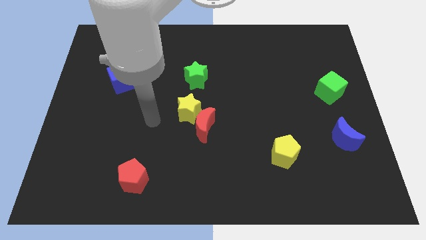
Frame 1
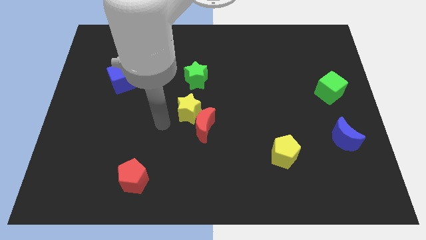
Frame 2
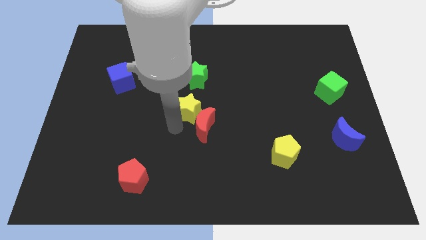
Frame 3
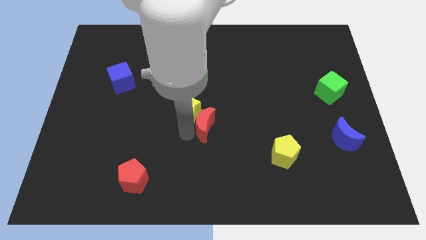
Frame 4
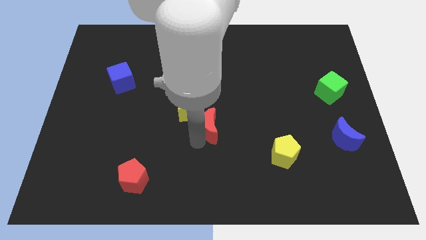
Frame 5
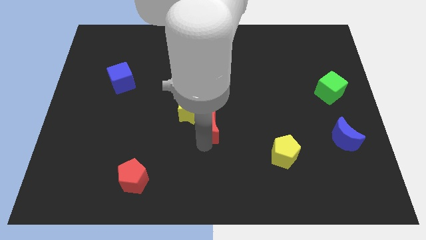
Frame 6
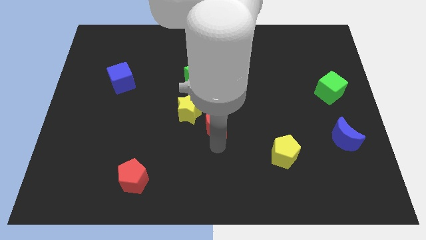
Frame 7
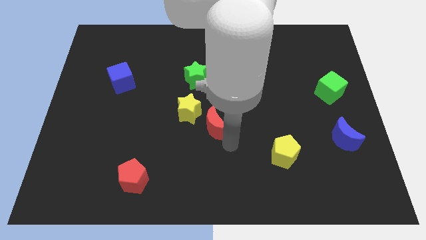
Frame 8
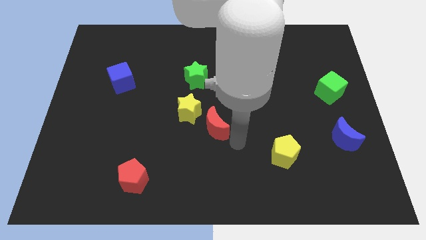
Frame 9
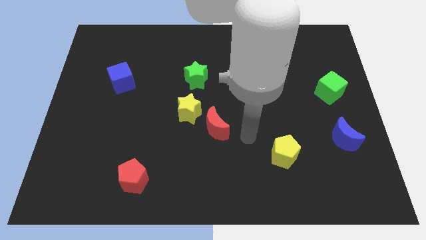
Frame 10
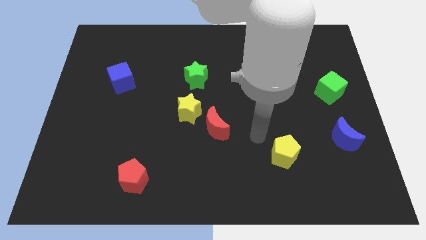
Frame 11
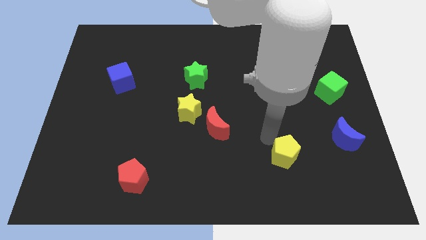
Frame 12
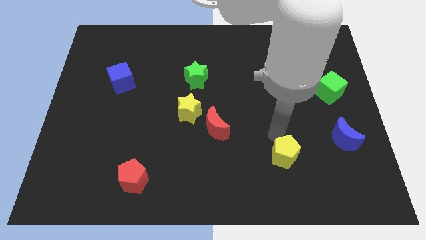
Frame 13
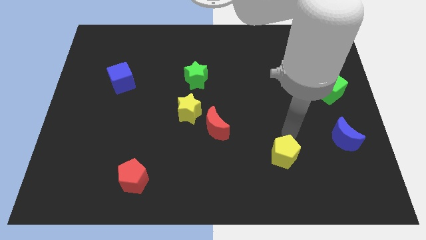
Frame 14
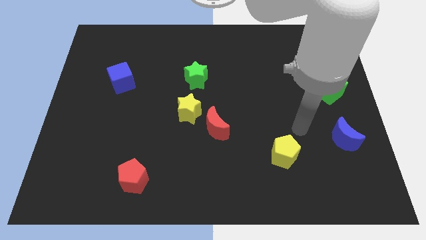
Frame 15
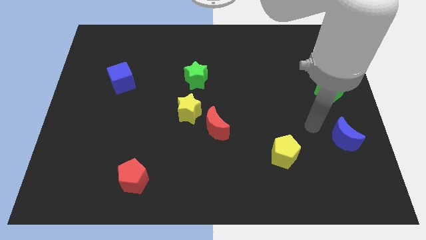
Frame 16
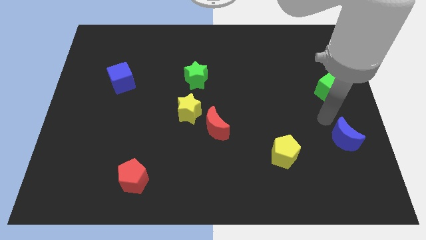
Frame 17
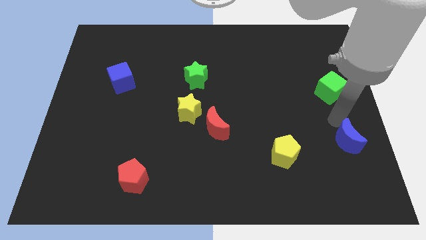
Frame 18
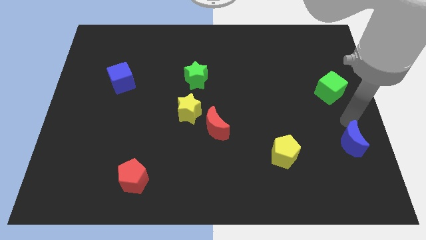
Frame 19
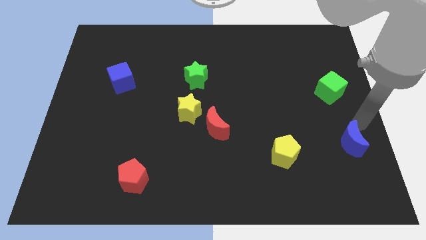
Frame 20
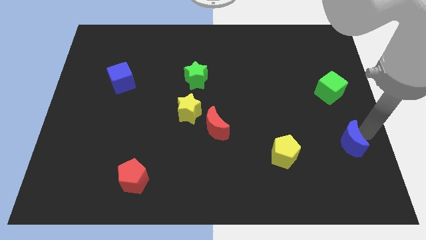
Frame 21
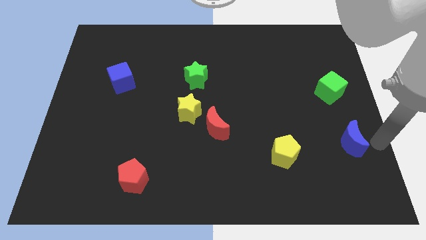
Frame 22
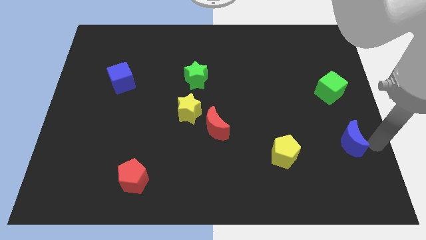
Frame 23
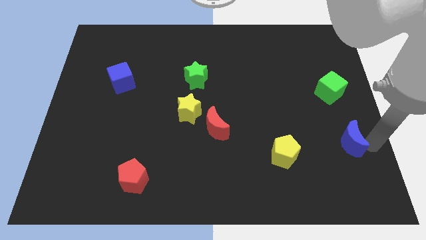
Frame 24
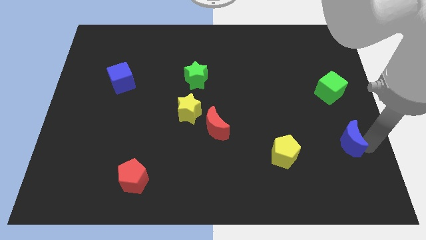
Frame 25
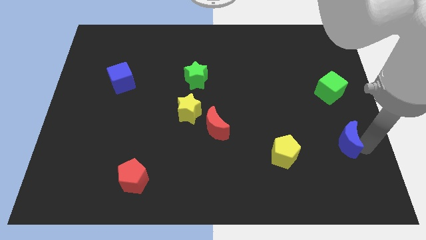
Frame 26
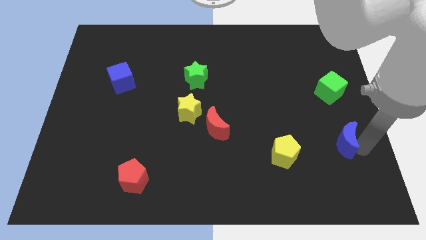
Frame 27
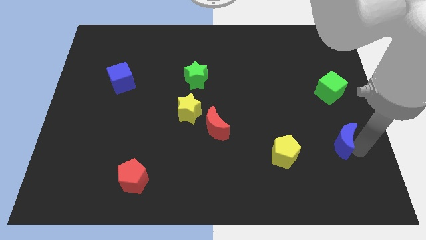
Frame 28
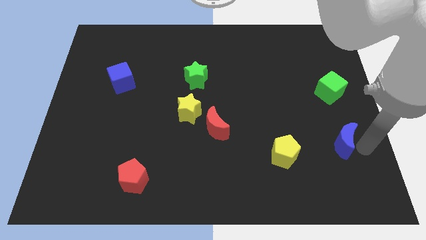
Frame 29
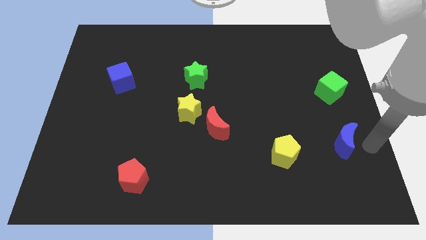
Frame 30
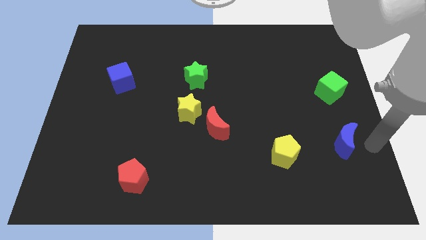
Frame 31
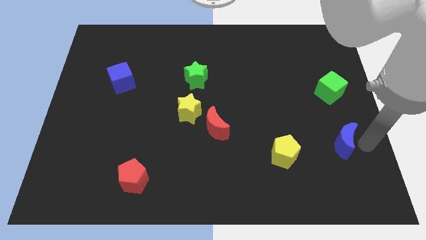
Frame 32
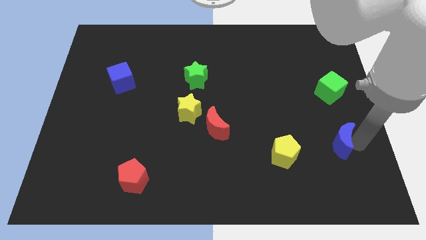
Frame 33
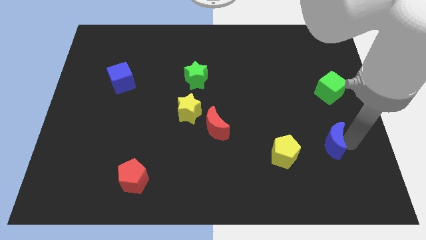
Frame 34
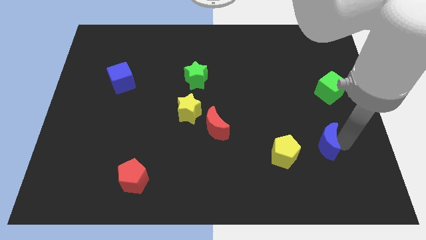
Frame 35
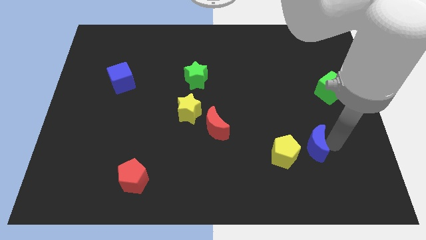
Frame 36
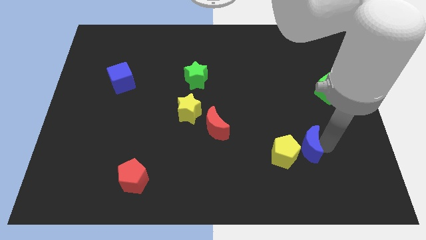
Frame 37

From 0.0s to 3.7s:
slide the blue moon a little bit left

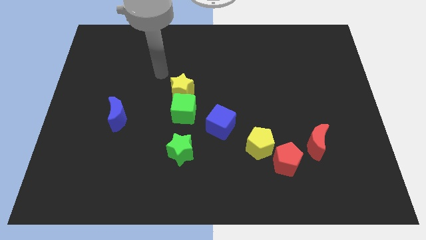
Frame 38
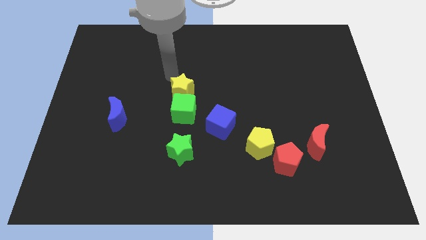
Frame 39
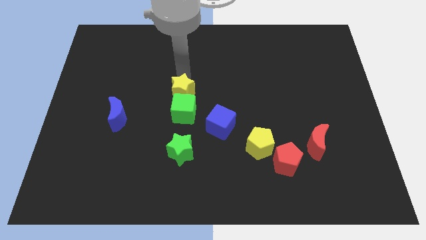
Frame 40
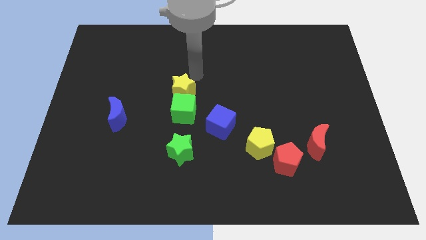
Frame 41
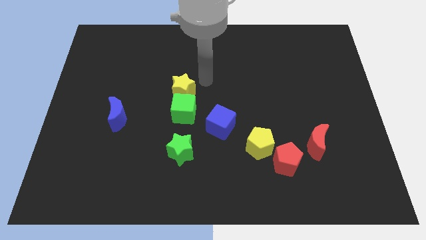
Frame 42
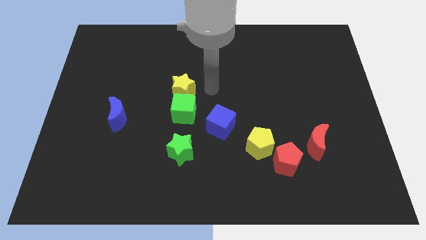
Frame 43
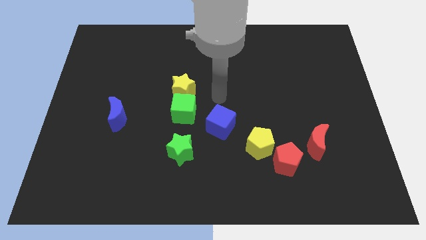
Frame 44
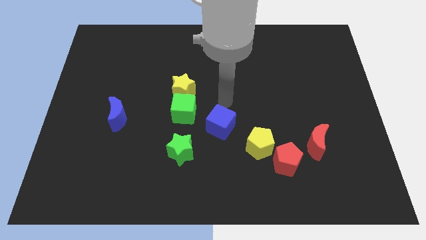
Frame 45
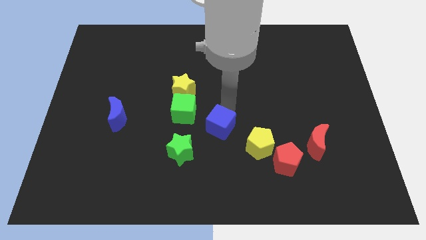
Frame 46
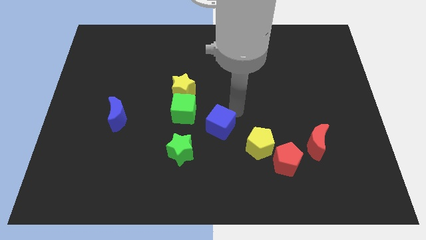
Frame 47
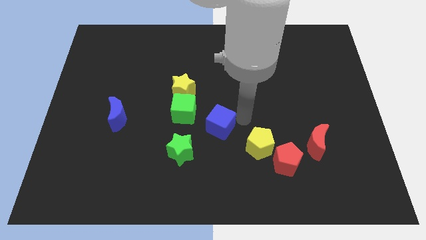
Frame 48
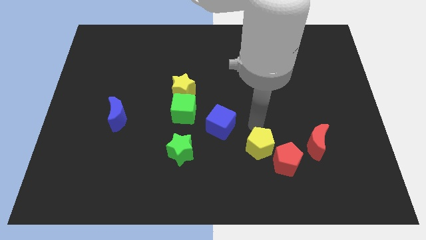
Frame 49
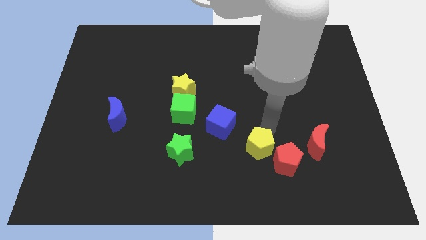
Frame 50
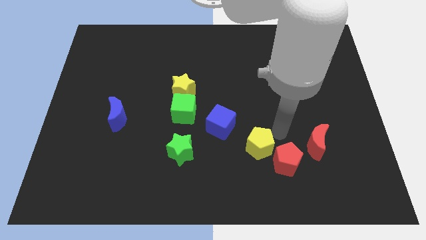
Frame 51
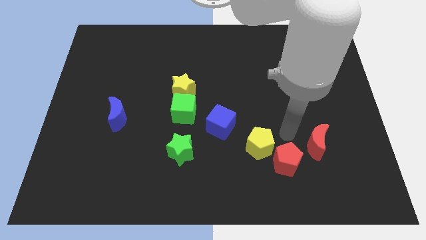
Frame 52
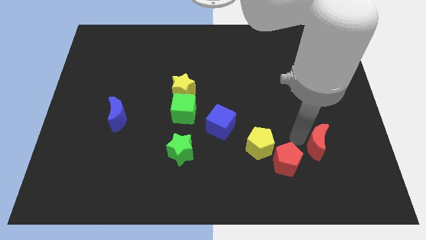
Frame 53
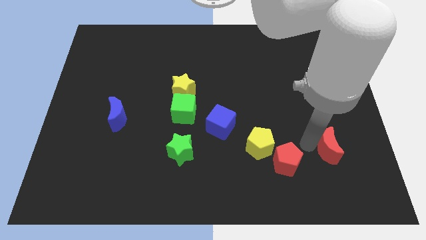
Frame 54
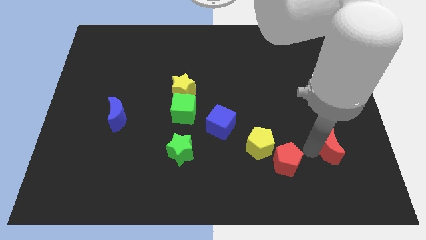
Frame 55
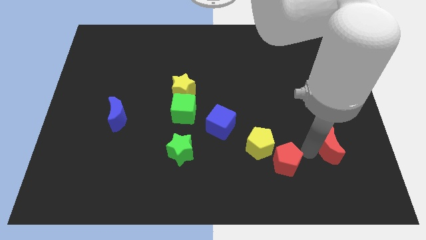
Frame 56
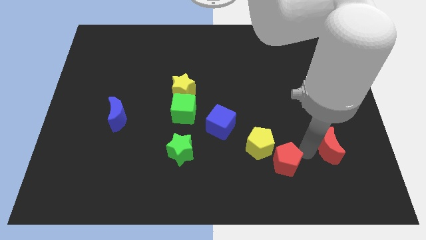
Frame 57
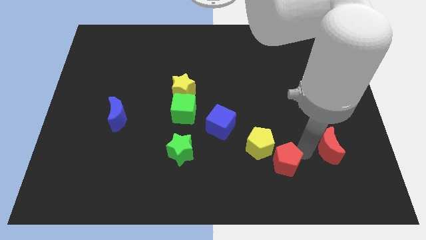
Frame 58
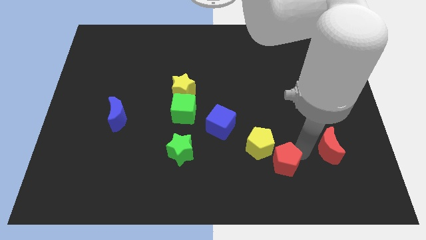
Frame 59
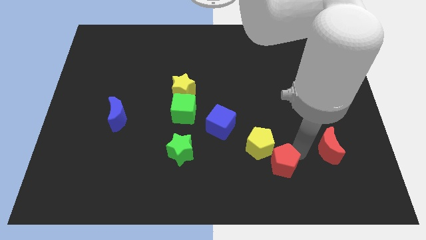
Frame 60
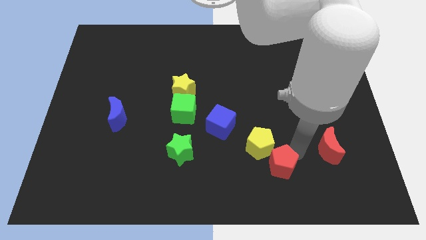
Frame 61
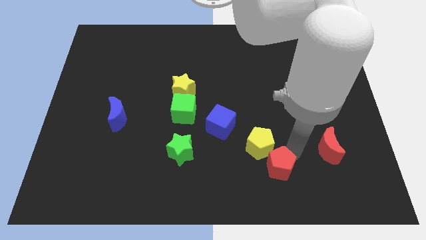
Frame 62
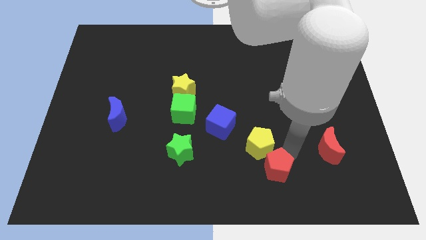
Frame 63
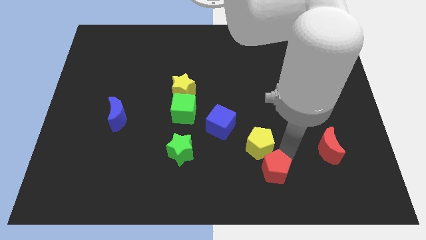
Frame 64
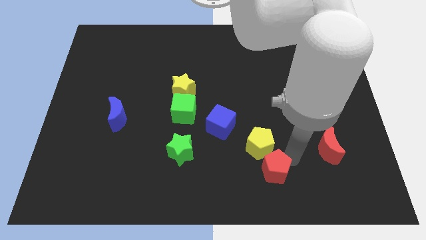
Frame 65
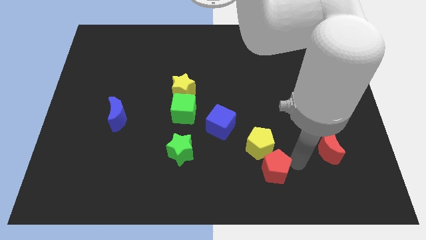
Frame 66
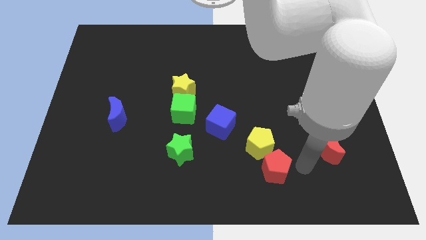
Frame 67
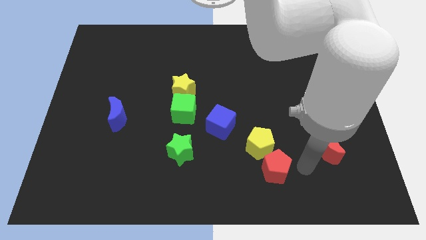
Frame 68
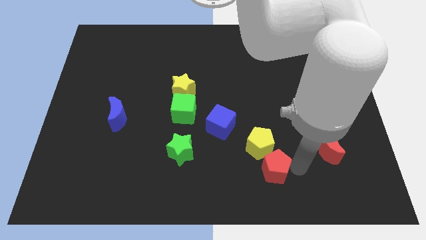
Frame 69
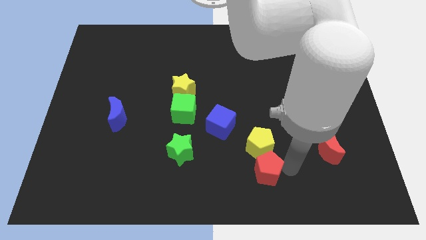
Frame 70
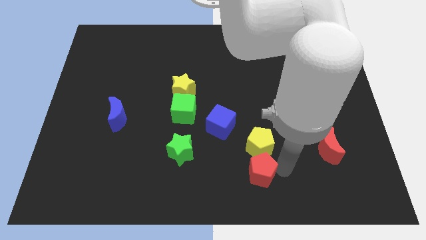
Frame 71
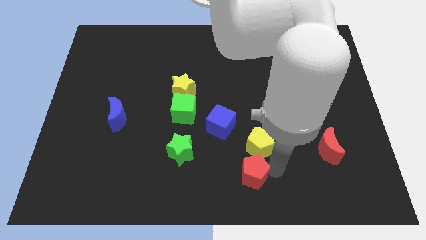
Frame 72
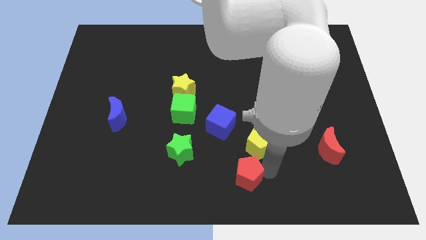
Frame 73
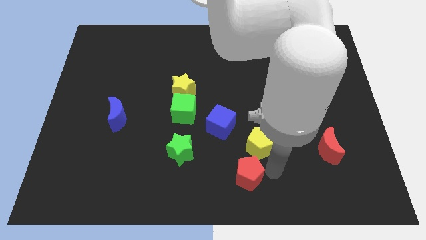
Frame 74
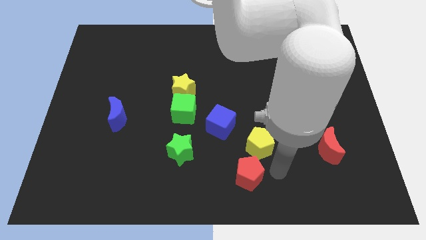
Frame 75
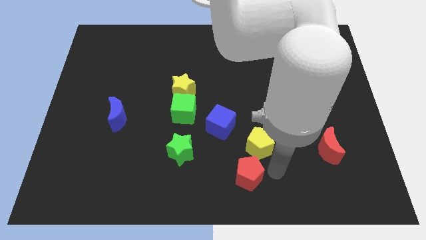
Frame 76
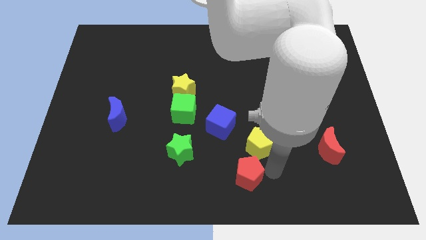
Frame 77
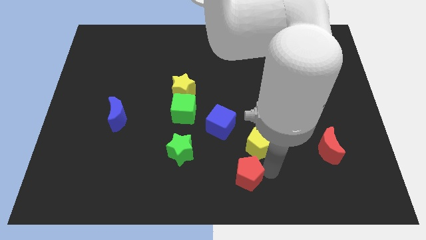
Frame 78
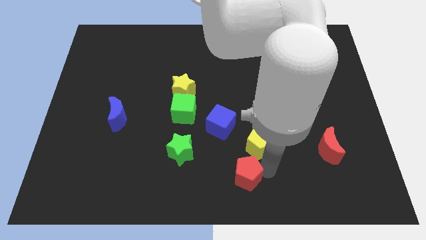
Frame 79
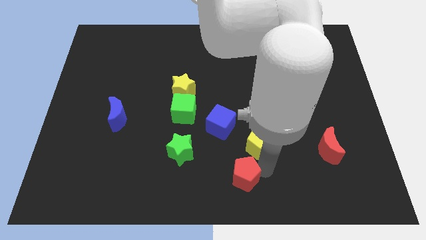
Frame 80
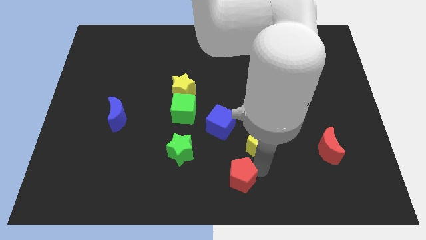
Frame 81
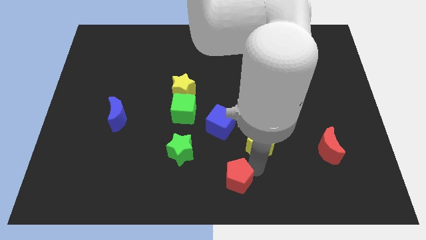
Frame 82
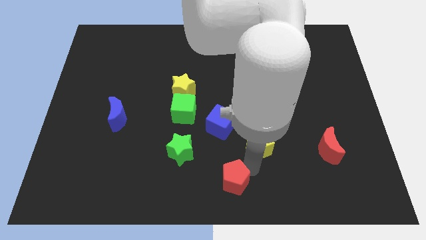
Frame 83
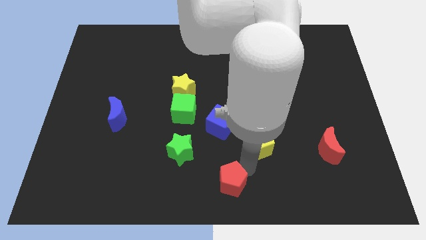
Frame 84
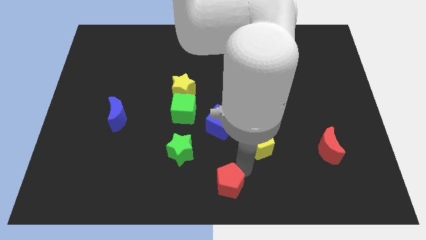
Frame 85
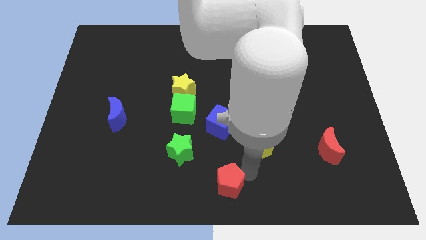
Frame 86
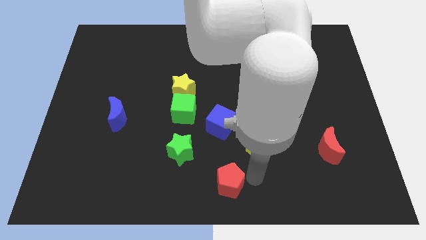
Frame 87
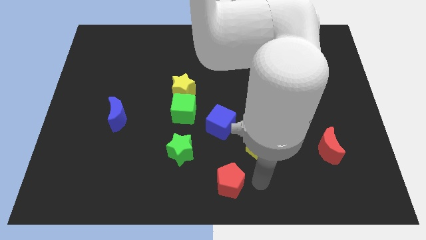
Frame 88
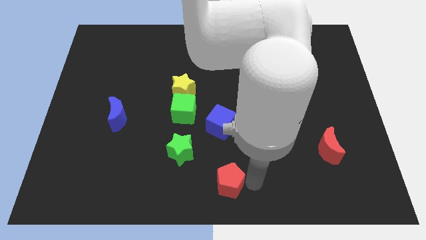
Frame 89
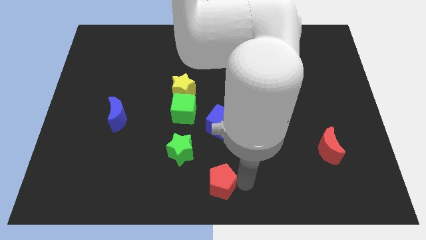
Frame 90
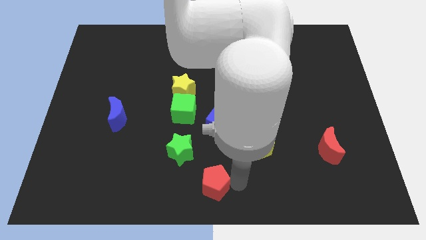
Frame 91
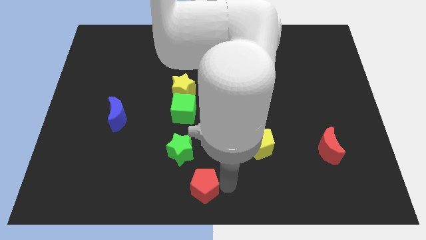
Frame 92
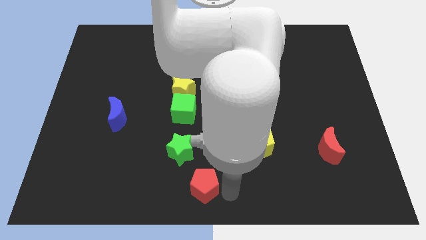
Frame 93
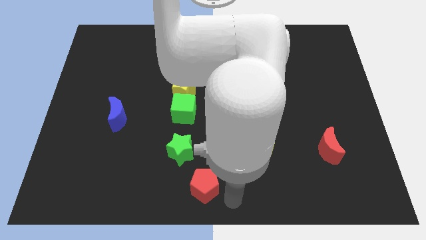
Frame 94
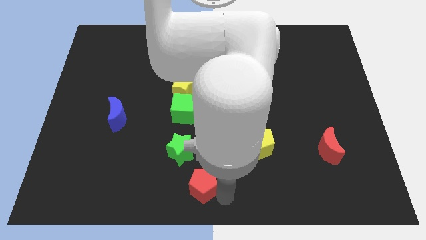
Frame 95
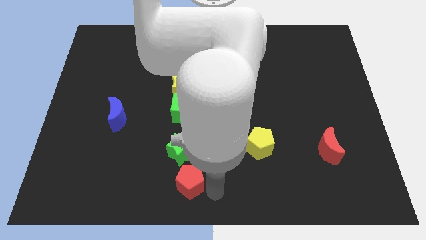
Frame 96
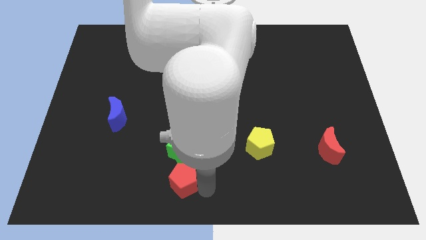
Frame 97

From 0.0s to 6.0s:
slide the red pentagon to the left
